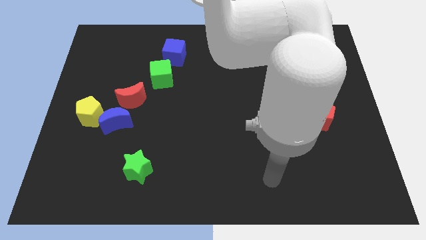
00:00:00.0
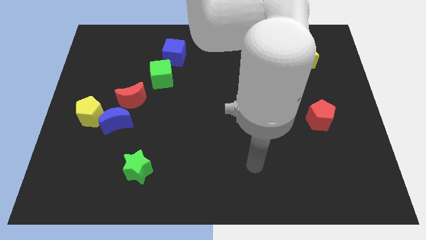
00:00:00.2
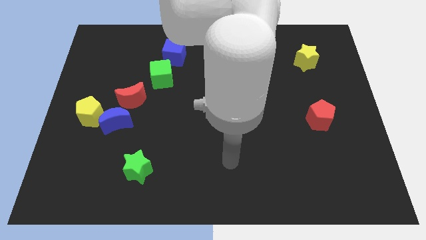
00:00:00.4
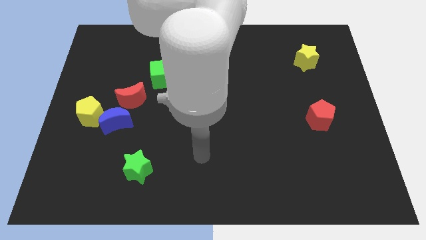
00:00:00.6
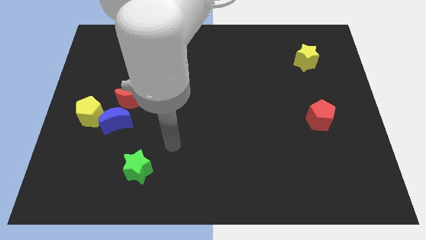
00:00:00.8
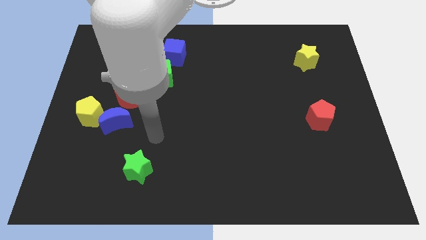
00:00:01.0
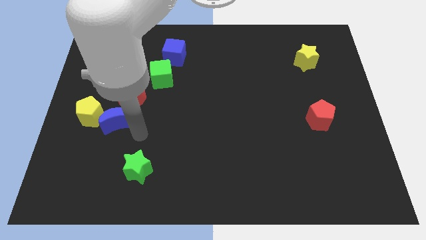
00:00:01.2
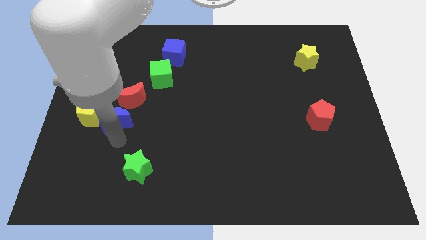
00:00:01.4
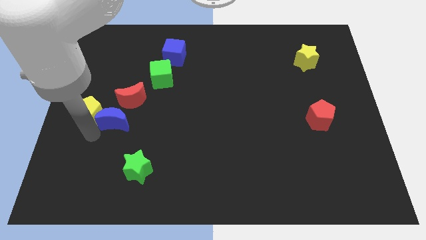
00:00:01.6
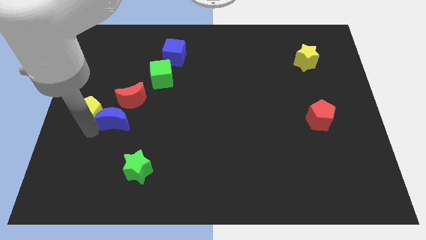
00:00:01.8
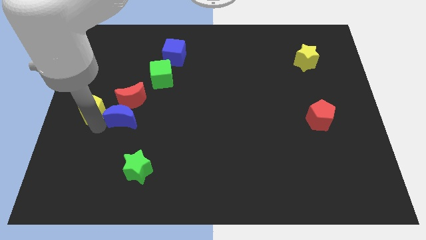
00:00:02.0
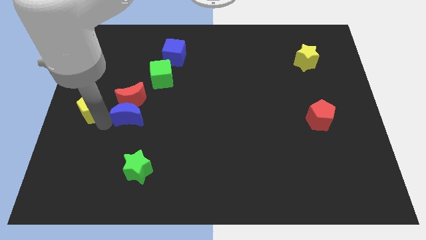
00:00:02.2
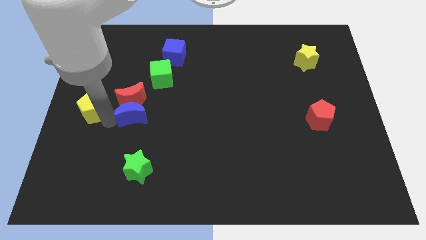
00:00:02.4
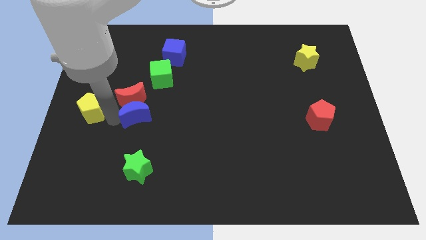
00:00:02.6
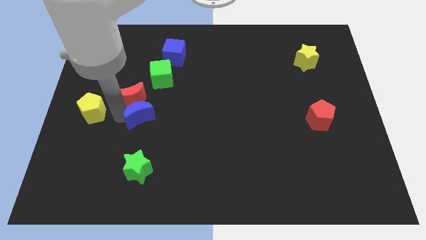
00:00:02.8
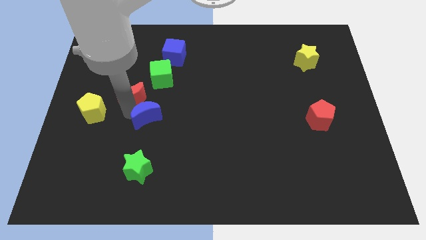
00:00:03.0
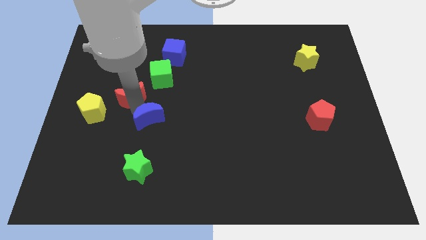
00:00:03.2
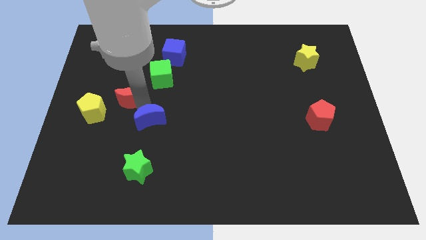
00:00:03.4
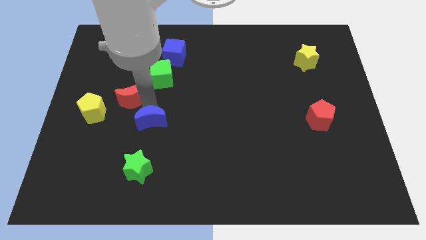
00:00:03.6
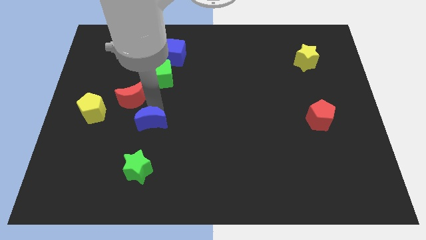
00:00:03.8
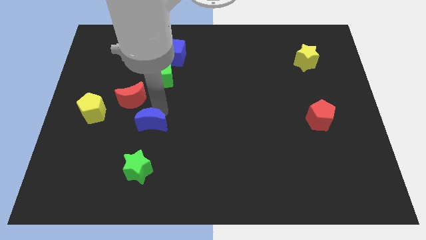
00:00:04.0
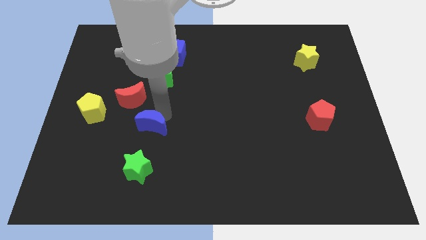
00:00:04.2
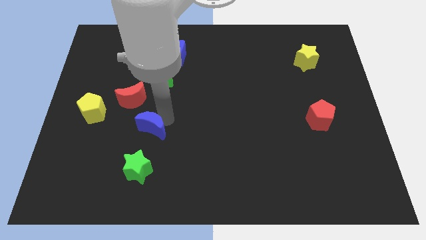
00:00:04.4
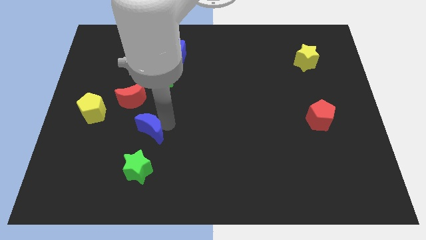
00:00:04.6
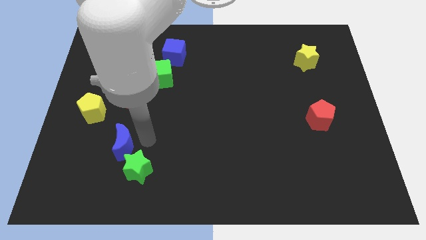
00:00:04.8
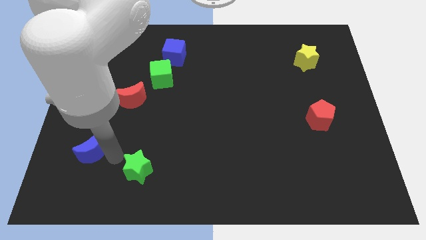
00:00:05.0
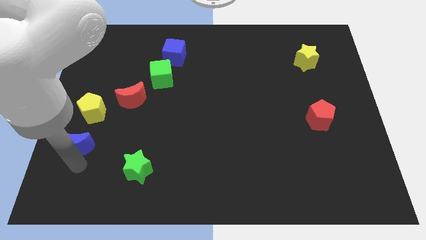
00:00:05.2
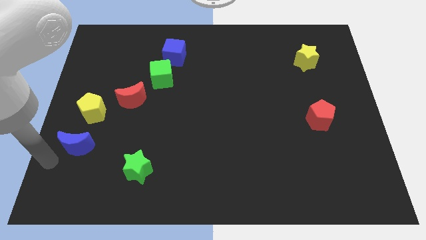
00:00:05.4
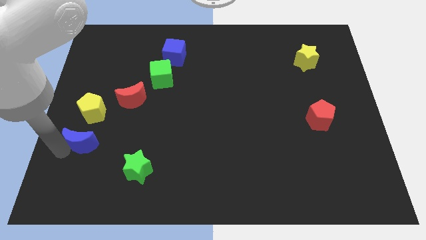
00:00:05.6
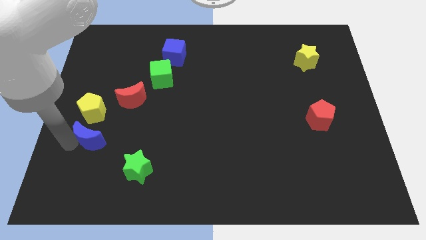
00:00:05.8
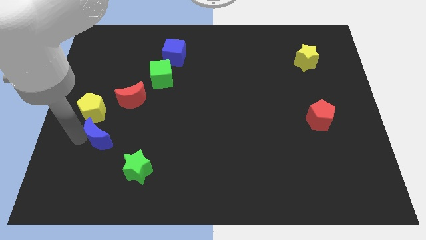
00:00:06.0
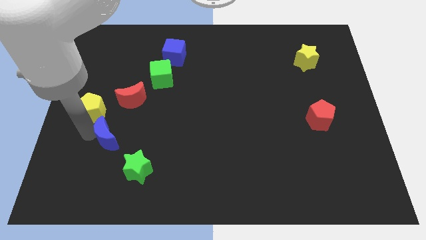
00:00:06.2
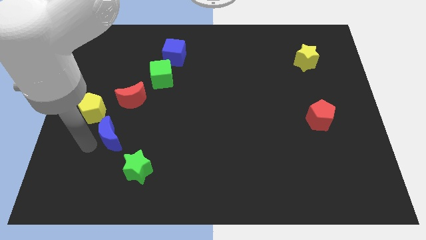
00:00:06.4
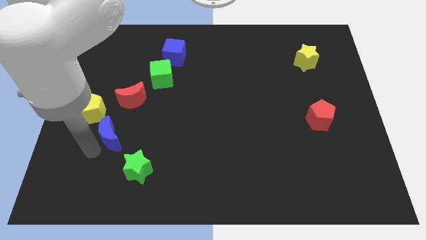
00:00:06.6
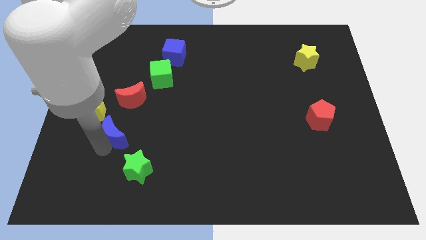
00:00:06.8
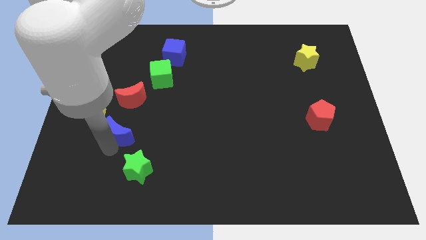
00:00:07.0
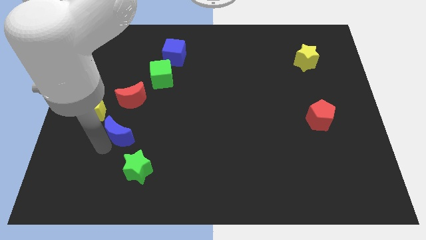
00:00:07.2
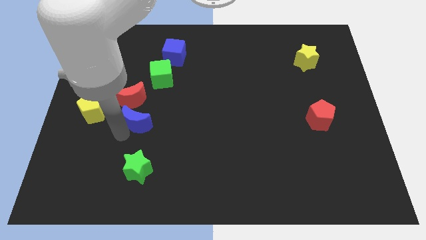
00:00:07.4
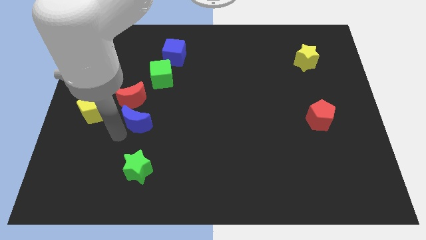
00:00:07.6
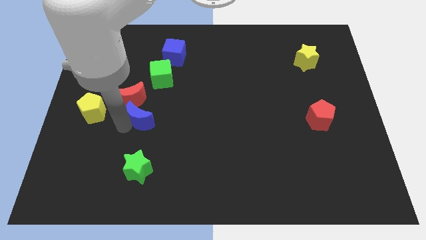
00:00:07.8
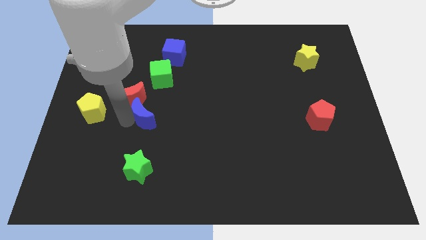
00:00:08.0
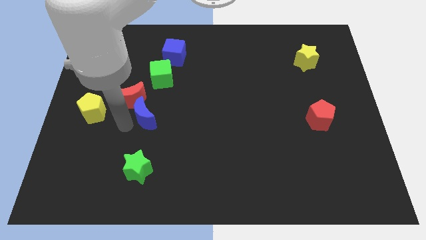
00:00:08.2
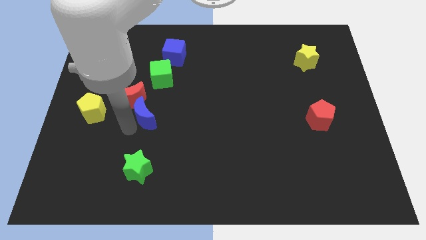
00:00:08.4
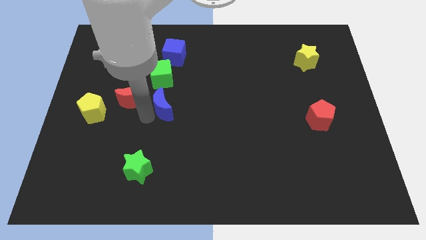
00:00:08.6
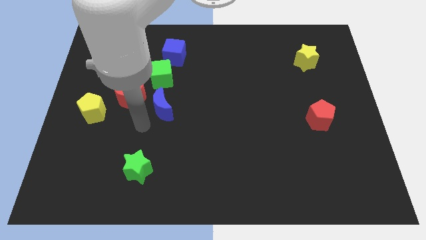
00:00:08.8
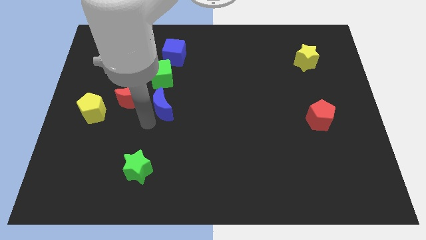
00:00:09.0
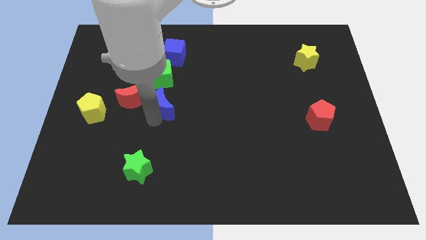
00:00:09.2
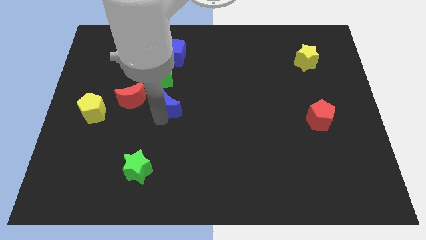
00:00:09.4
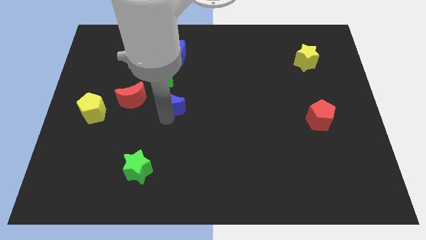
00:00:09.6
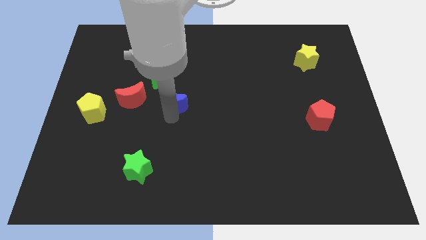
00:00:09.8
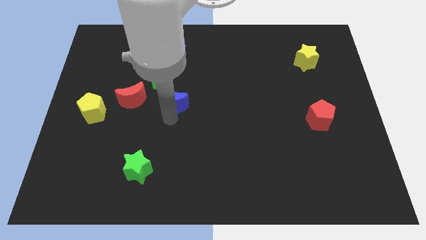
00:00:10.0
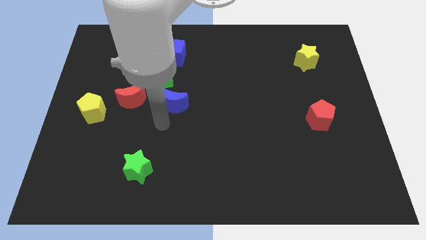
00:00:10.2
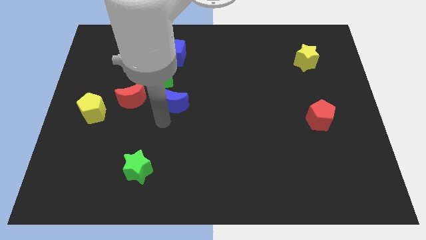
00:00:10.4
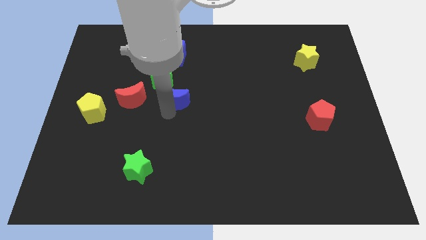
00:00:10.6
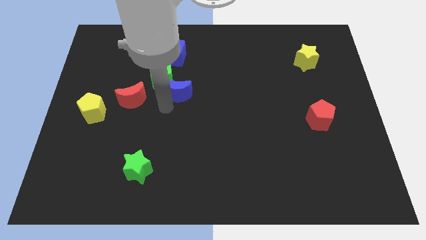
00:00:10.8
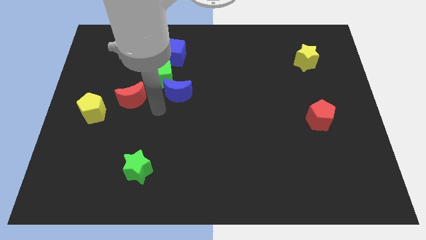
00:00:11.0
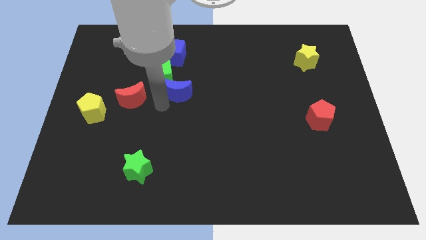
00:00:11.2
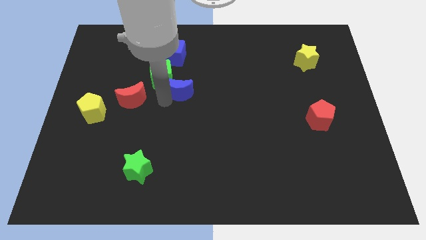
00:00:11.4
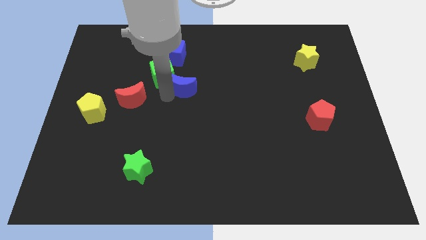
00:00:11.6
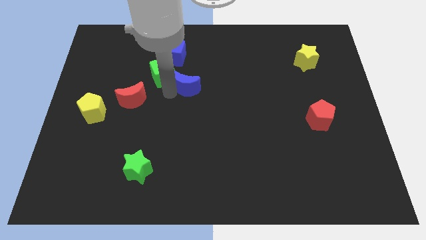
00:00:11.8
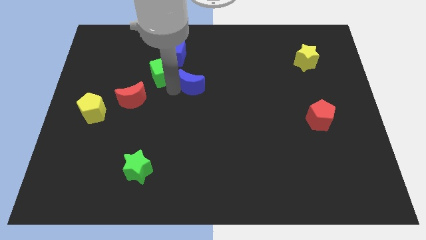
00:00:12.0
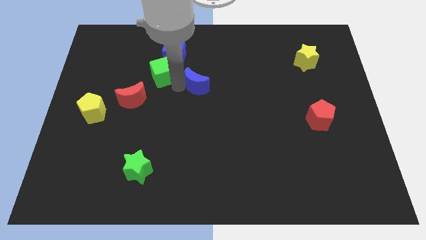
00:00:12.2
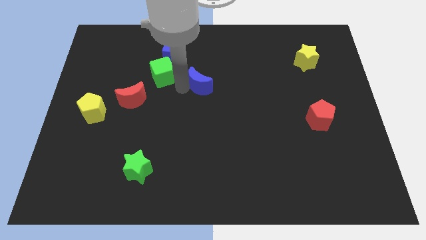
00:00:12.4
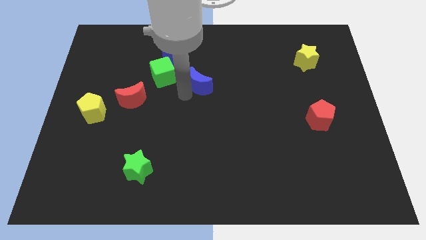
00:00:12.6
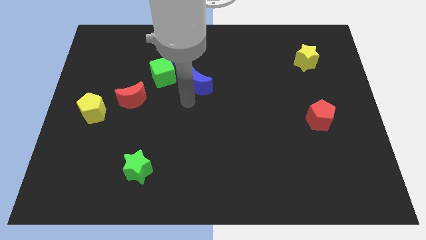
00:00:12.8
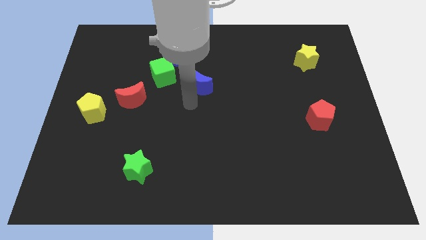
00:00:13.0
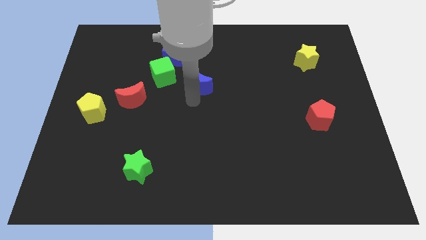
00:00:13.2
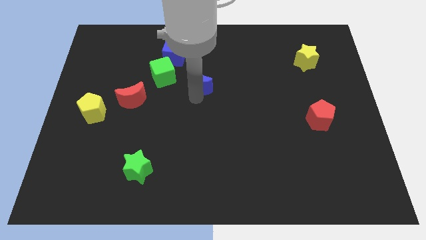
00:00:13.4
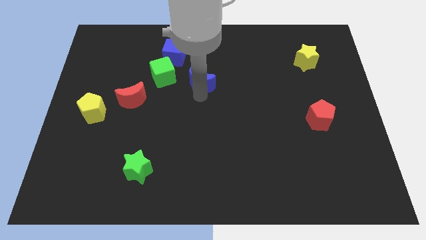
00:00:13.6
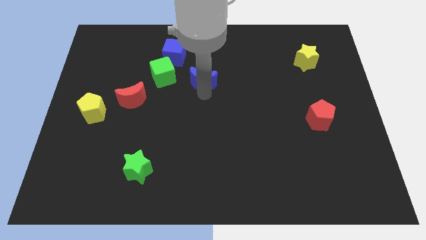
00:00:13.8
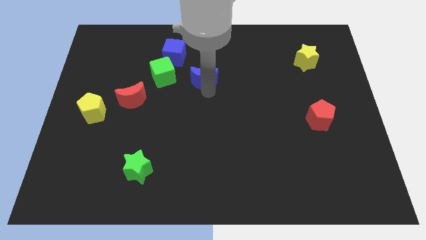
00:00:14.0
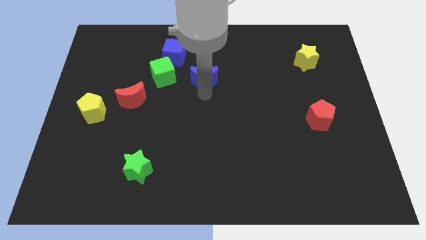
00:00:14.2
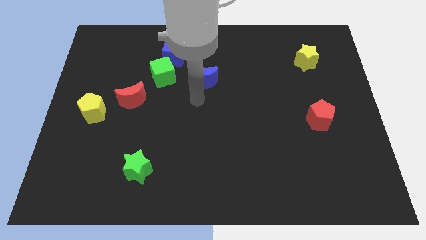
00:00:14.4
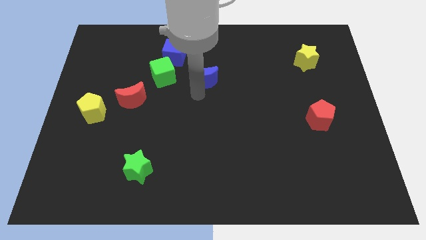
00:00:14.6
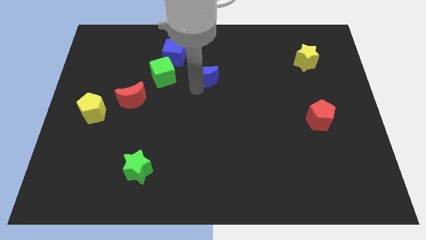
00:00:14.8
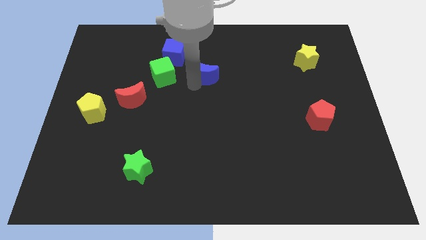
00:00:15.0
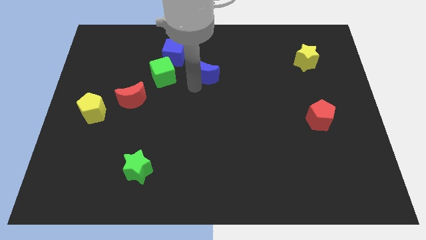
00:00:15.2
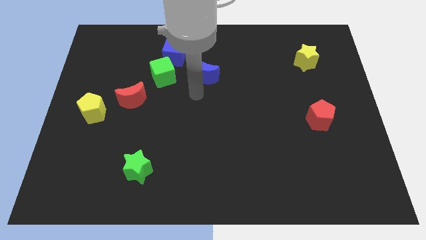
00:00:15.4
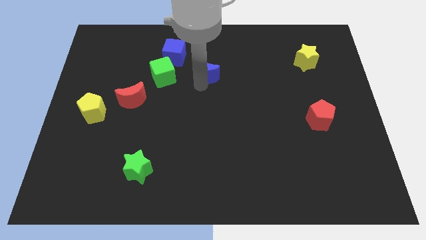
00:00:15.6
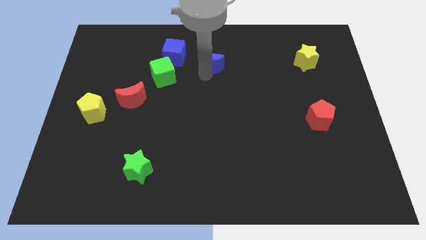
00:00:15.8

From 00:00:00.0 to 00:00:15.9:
put the blue moon to the right of the blue cube
